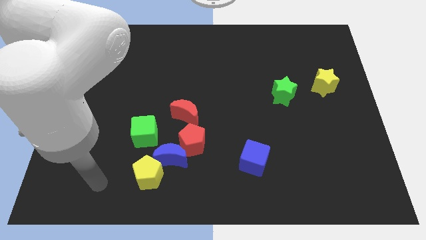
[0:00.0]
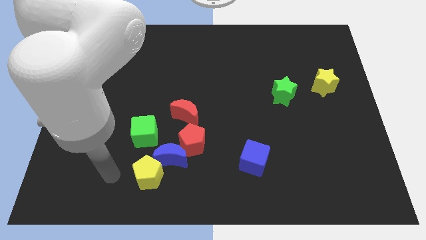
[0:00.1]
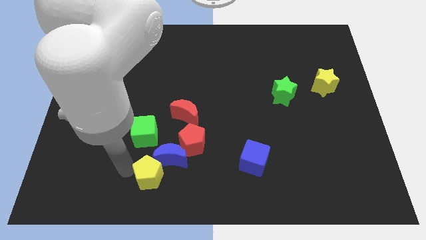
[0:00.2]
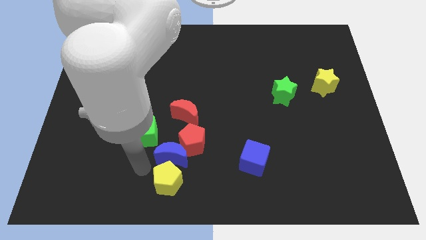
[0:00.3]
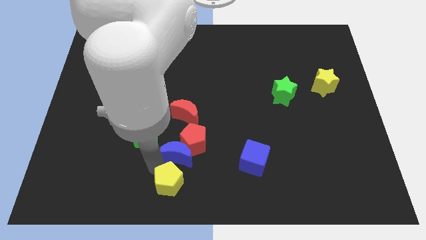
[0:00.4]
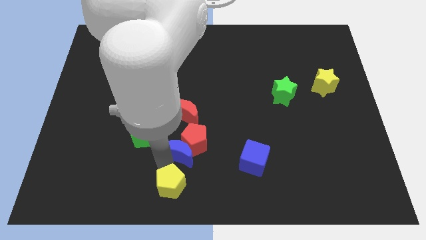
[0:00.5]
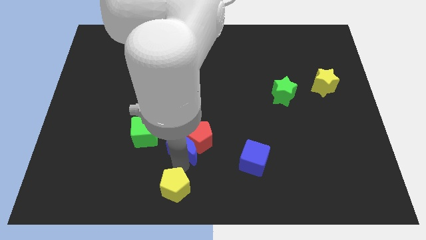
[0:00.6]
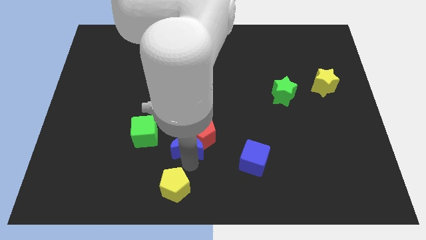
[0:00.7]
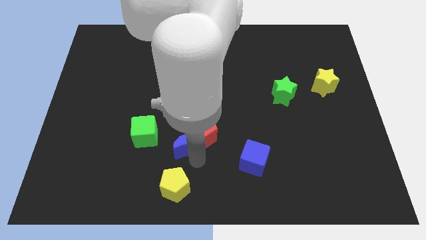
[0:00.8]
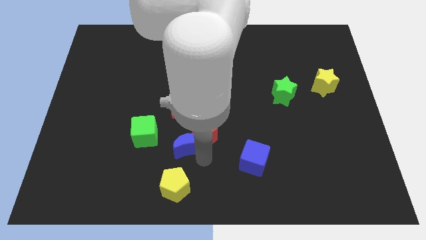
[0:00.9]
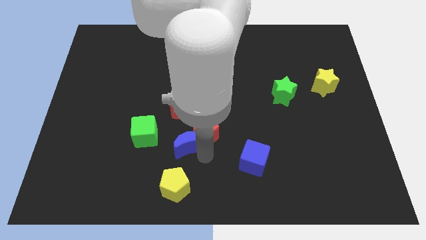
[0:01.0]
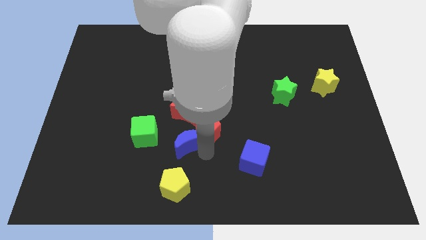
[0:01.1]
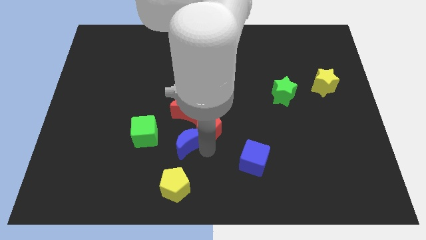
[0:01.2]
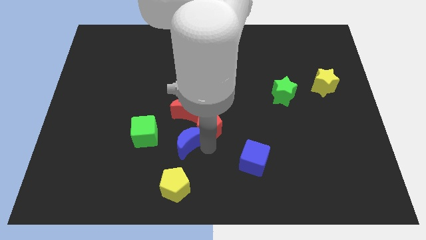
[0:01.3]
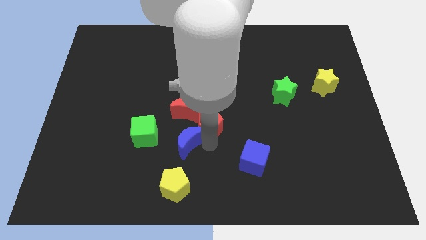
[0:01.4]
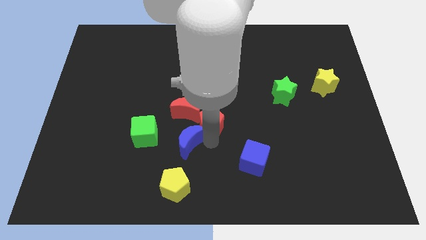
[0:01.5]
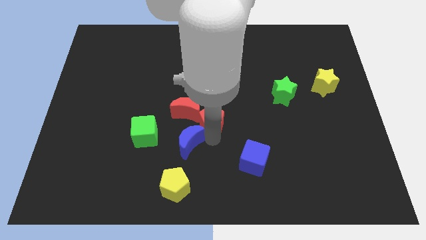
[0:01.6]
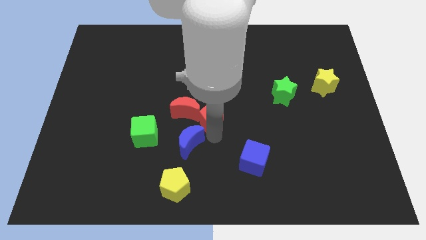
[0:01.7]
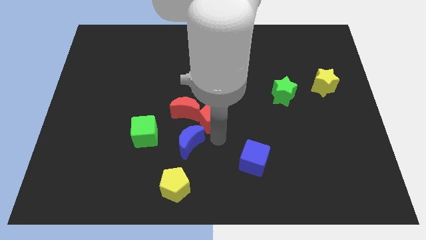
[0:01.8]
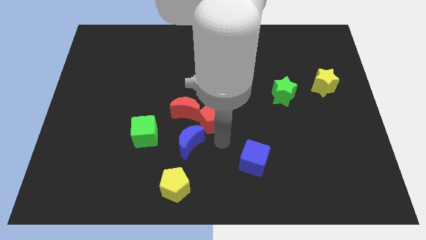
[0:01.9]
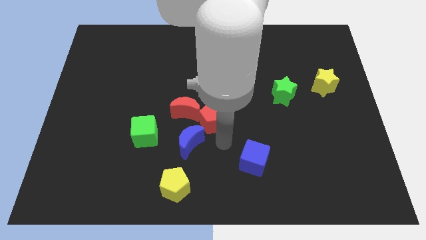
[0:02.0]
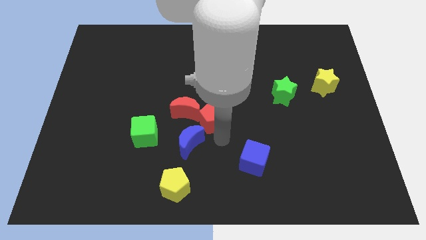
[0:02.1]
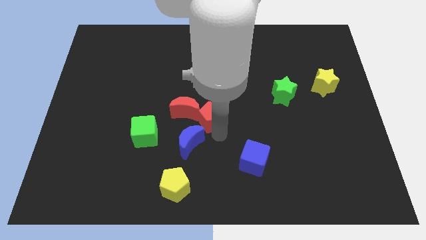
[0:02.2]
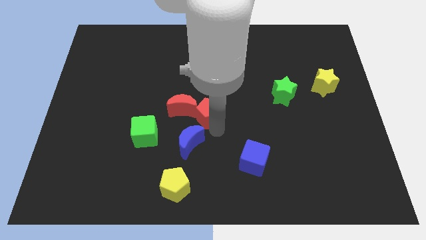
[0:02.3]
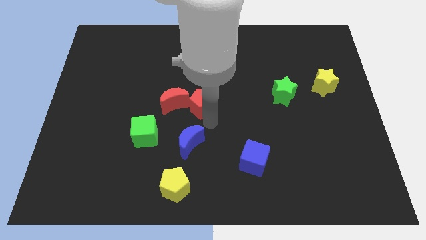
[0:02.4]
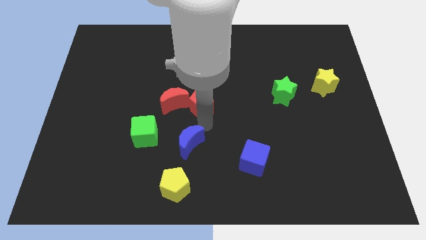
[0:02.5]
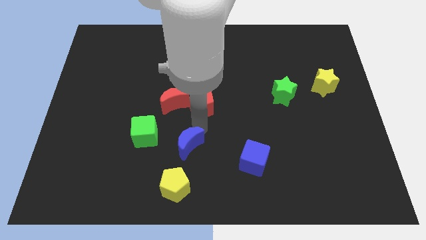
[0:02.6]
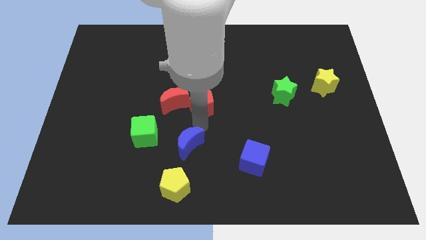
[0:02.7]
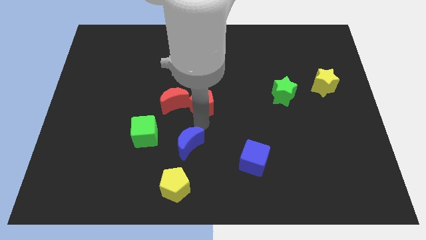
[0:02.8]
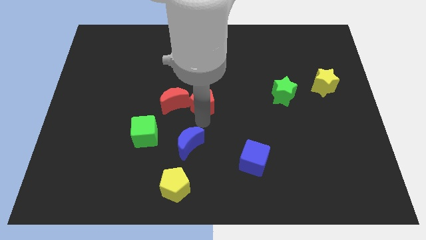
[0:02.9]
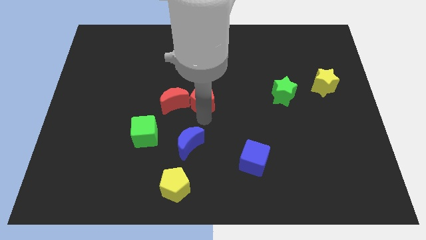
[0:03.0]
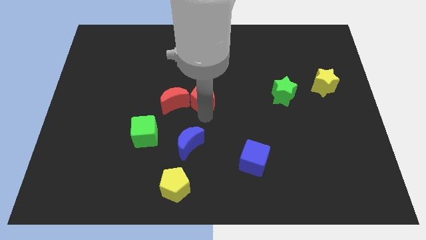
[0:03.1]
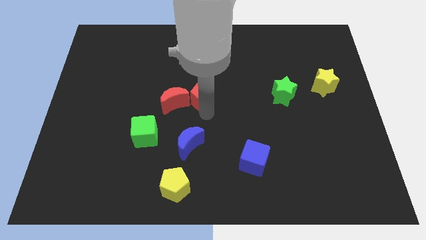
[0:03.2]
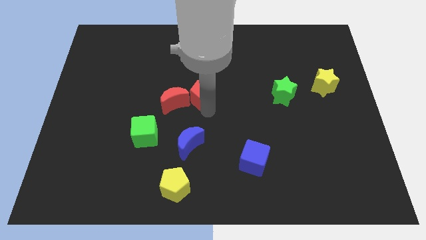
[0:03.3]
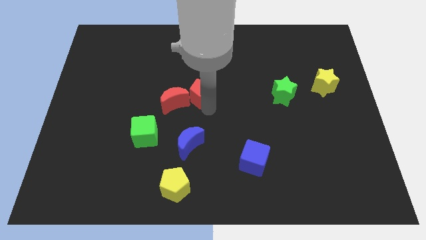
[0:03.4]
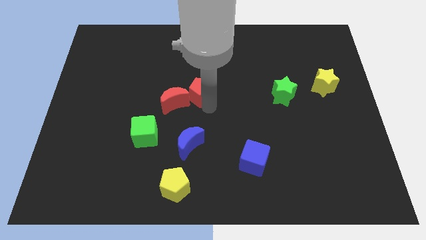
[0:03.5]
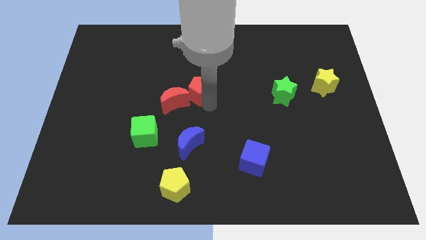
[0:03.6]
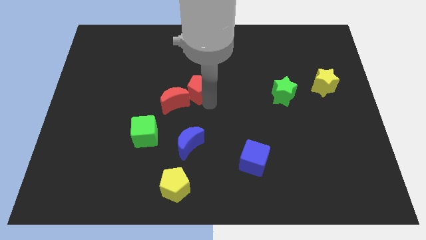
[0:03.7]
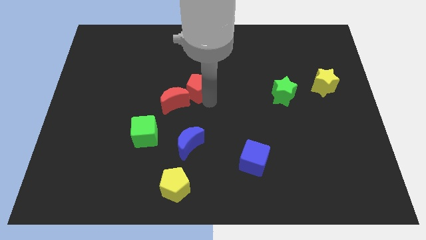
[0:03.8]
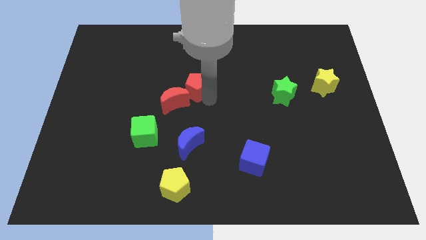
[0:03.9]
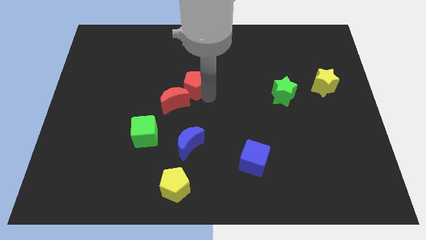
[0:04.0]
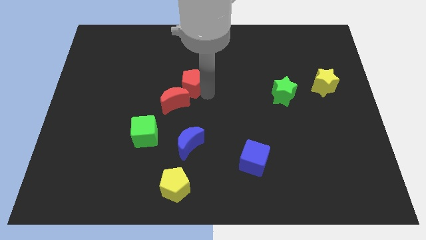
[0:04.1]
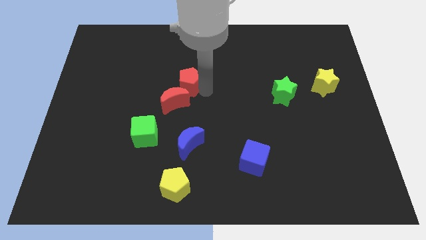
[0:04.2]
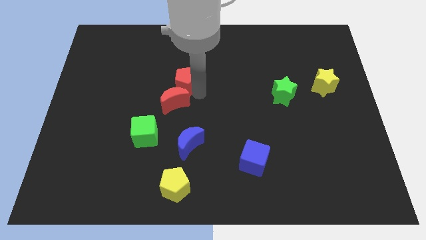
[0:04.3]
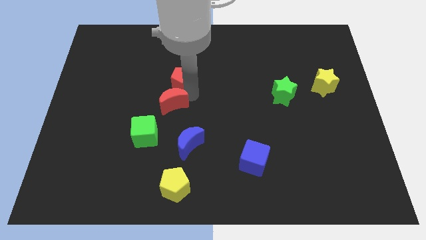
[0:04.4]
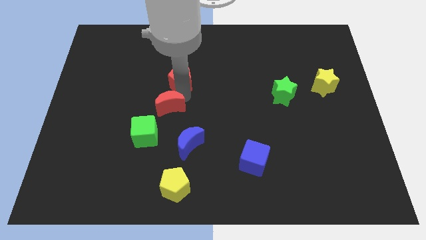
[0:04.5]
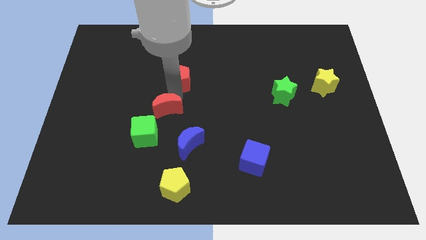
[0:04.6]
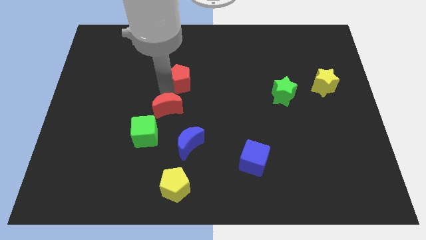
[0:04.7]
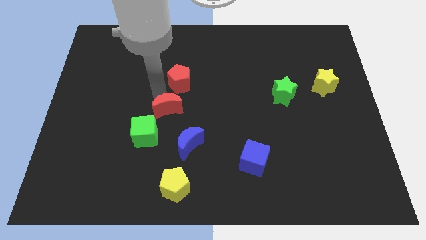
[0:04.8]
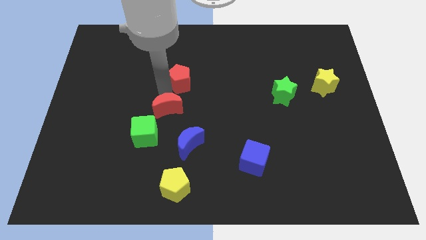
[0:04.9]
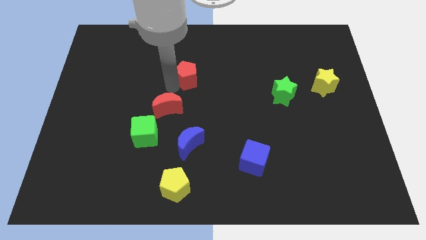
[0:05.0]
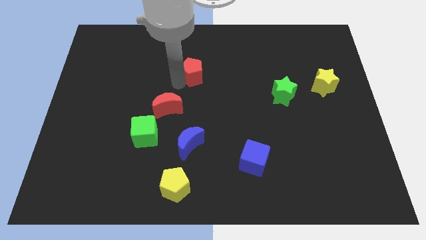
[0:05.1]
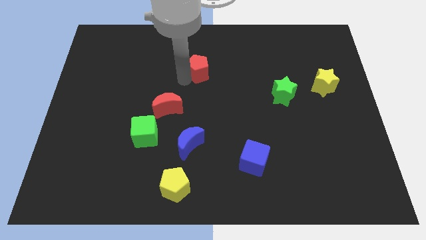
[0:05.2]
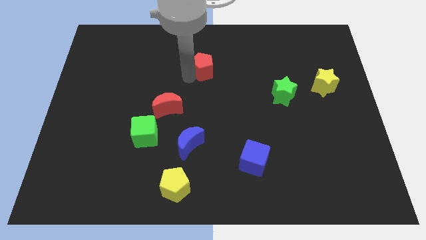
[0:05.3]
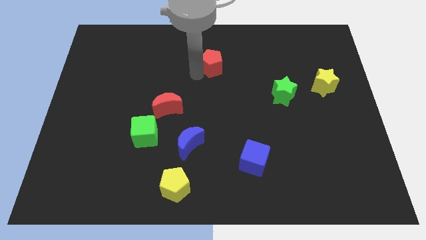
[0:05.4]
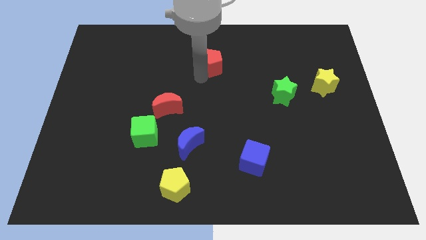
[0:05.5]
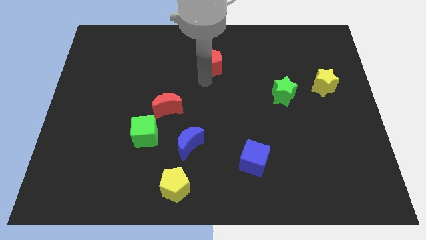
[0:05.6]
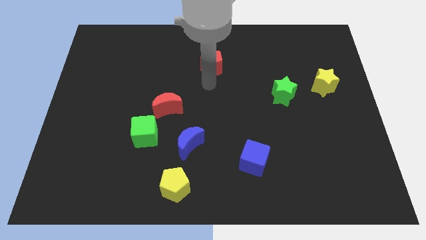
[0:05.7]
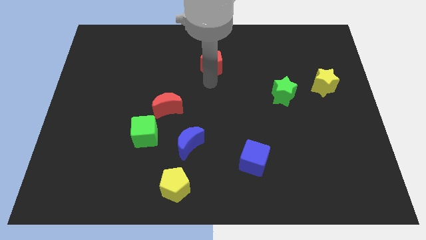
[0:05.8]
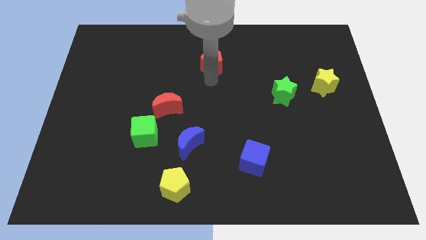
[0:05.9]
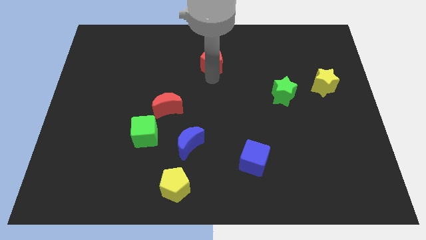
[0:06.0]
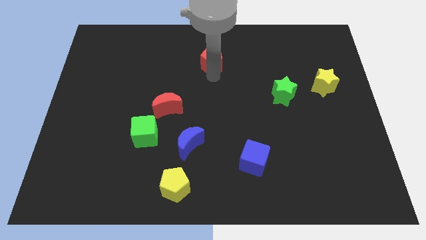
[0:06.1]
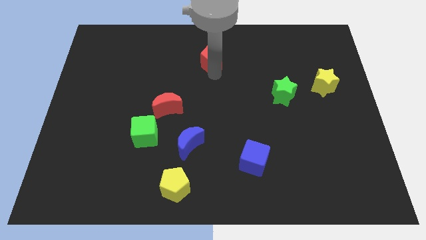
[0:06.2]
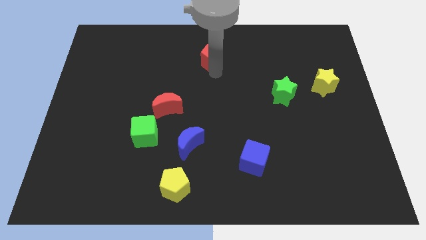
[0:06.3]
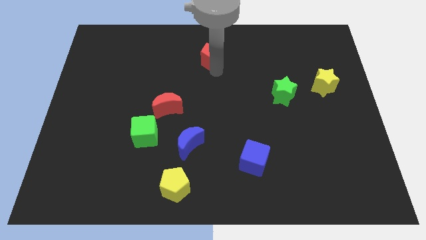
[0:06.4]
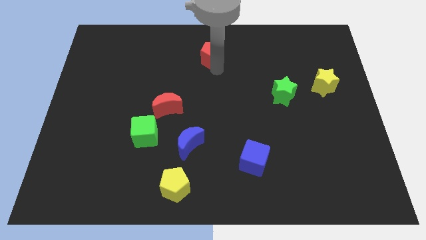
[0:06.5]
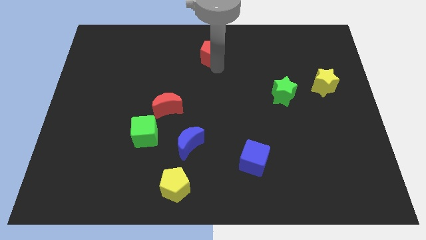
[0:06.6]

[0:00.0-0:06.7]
put the red pentagon to the top
